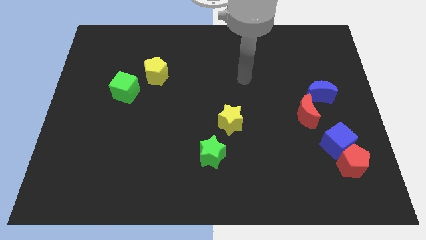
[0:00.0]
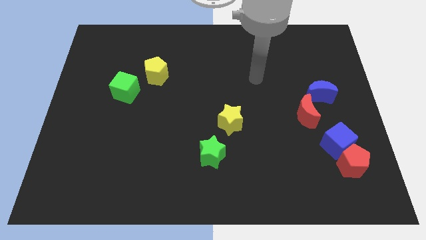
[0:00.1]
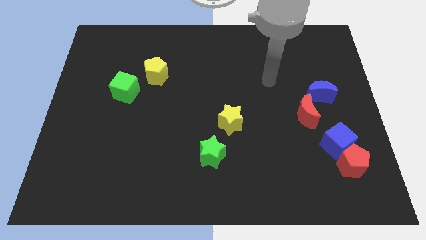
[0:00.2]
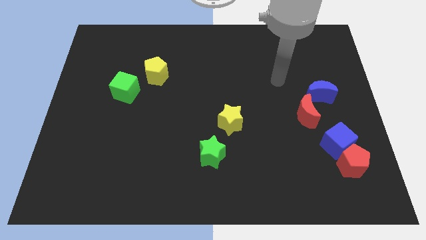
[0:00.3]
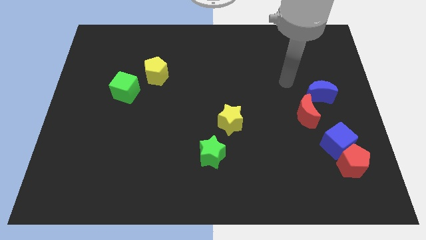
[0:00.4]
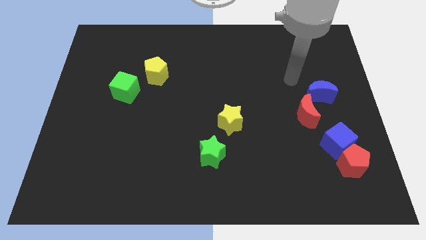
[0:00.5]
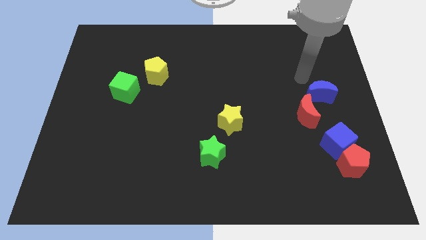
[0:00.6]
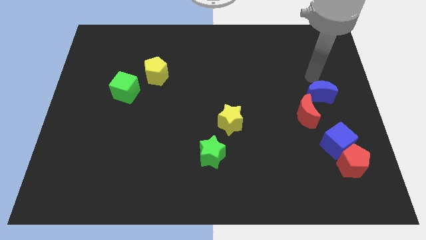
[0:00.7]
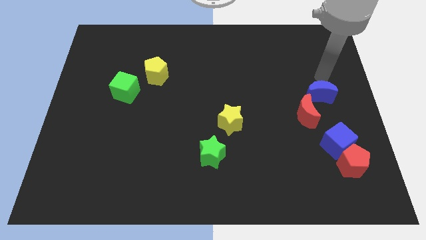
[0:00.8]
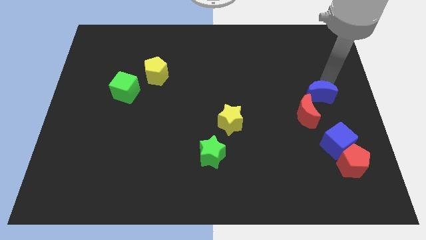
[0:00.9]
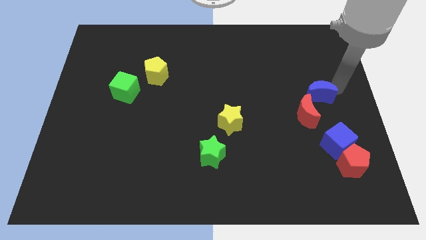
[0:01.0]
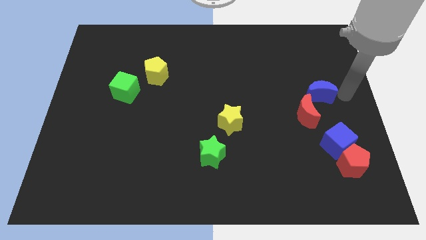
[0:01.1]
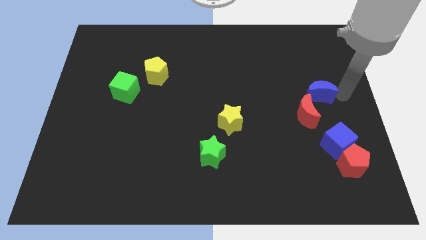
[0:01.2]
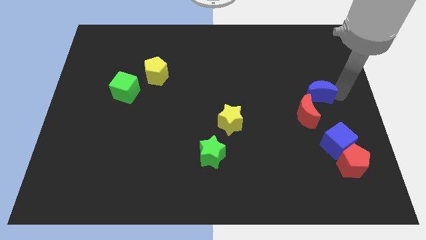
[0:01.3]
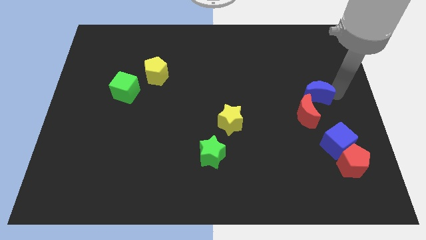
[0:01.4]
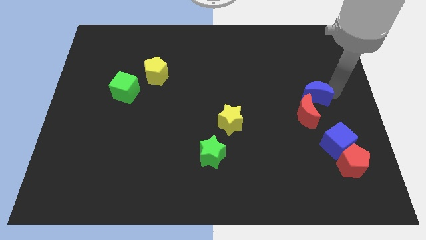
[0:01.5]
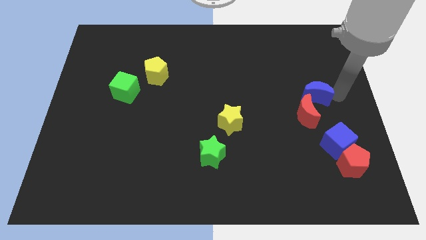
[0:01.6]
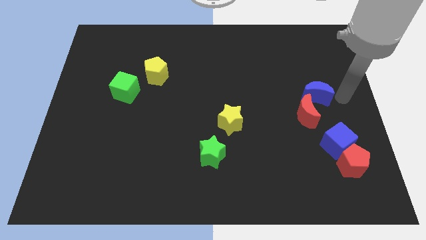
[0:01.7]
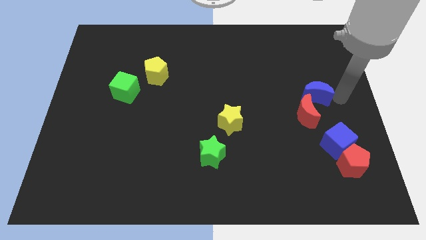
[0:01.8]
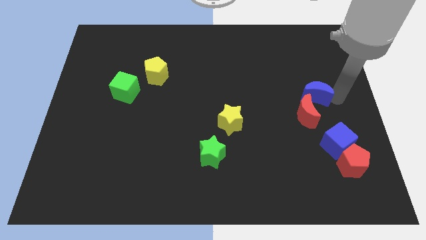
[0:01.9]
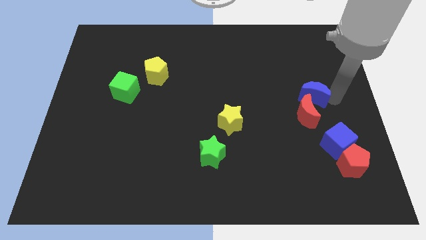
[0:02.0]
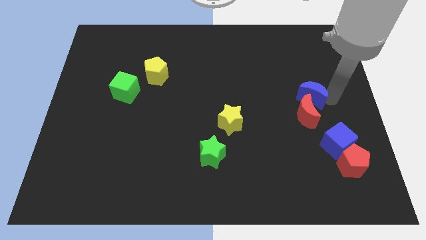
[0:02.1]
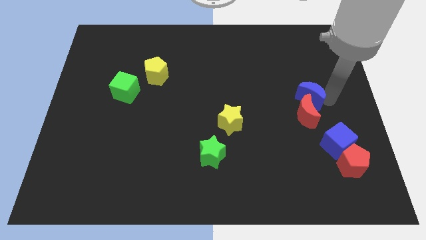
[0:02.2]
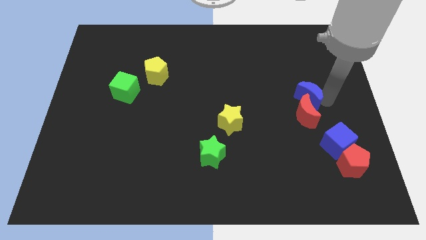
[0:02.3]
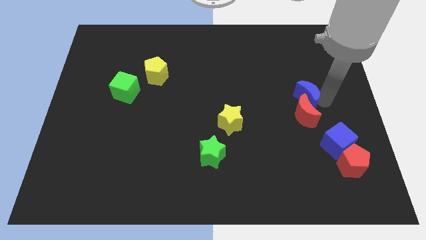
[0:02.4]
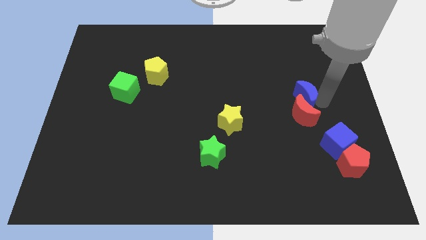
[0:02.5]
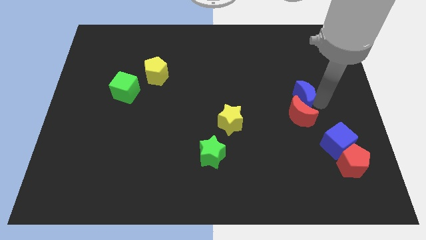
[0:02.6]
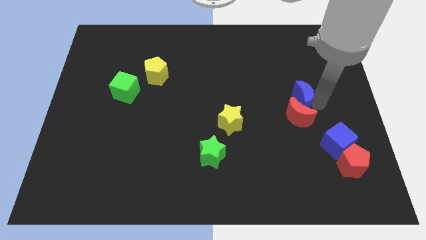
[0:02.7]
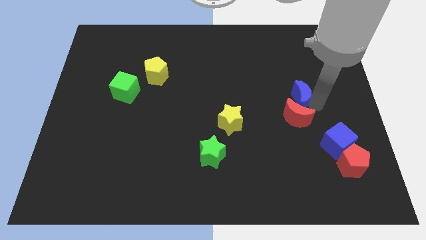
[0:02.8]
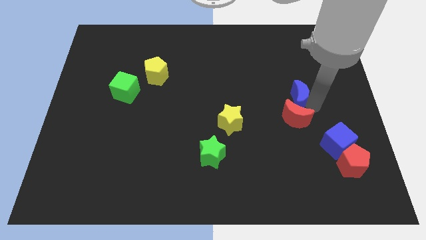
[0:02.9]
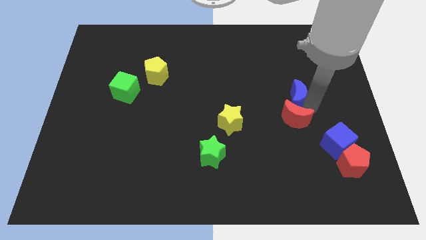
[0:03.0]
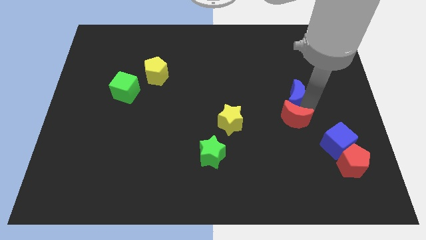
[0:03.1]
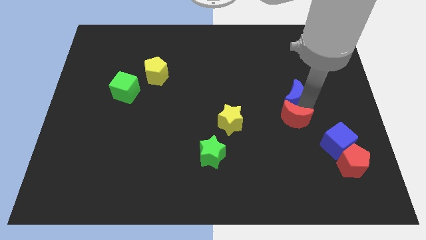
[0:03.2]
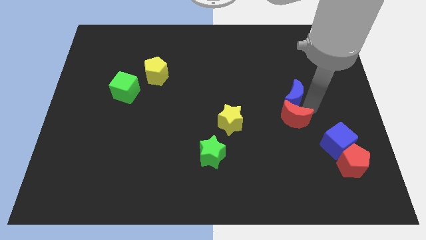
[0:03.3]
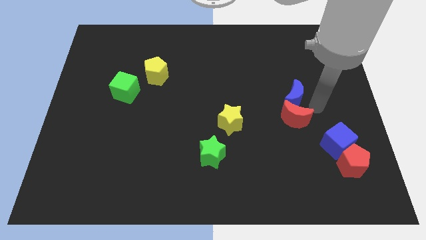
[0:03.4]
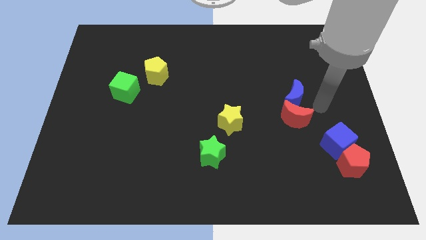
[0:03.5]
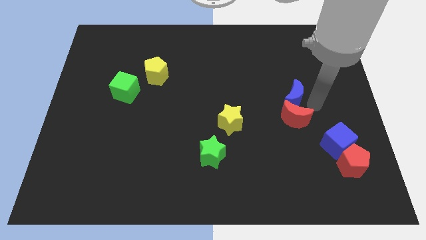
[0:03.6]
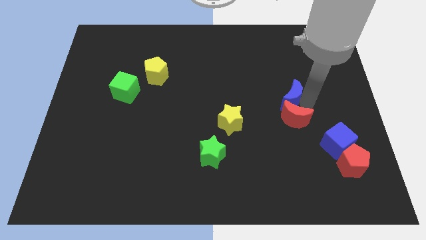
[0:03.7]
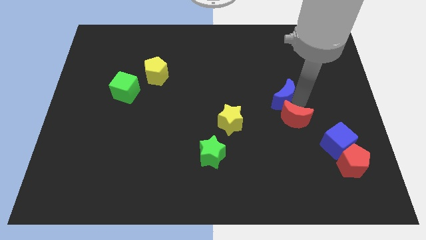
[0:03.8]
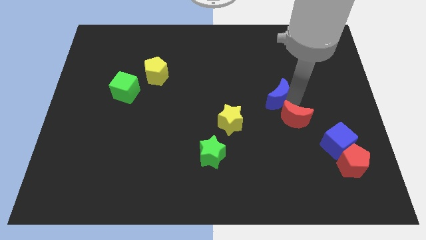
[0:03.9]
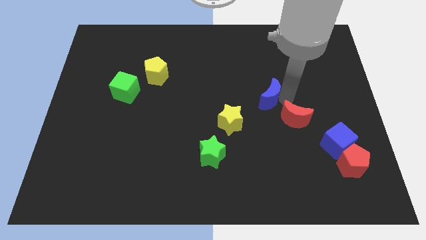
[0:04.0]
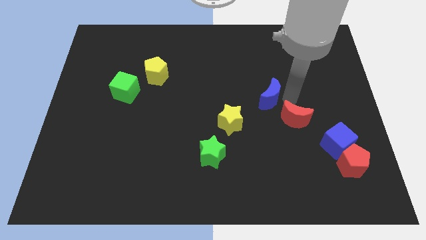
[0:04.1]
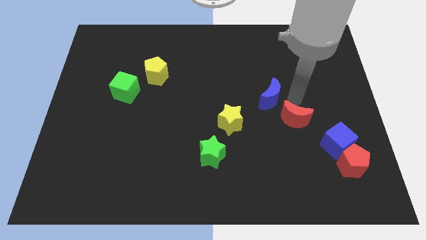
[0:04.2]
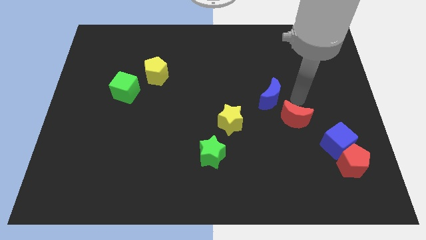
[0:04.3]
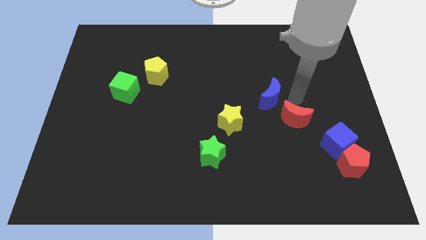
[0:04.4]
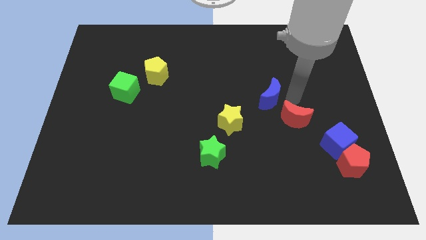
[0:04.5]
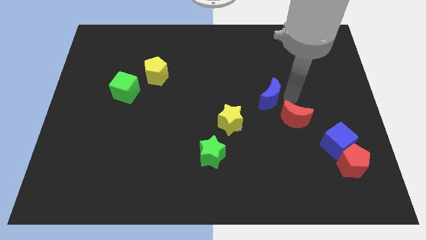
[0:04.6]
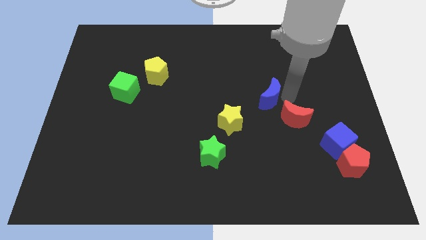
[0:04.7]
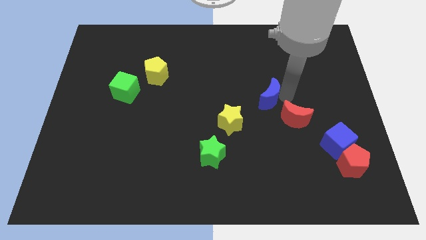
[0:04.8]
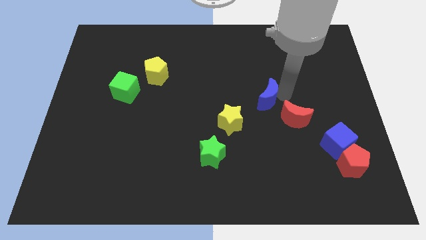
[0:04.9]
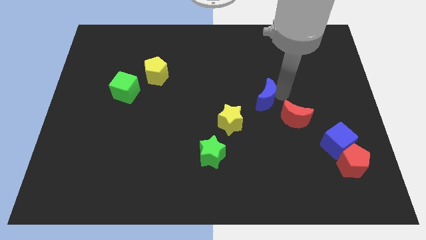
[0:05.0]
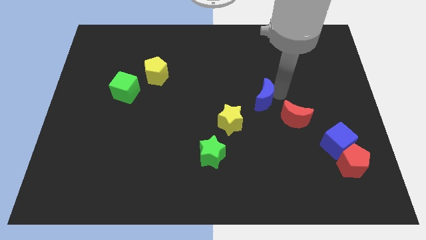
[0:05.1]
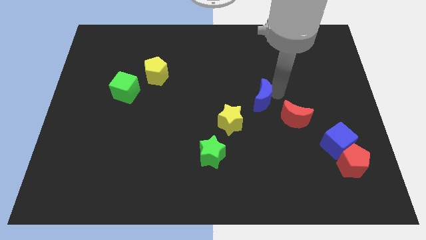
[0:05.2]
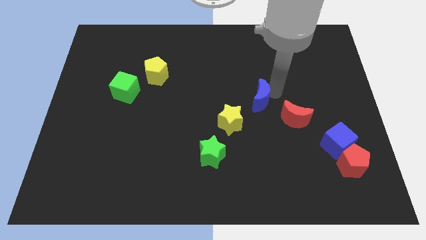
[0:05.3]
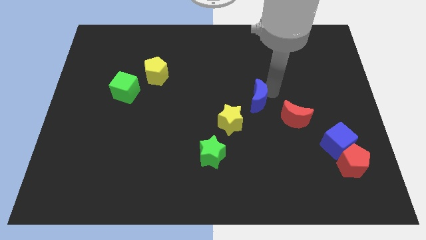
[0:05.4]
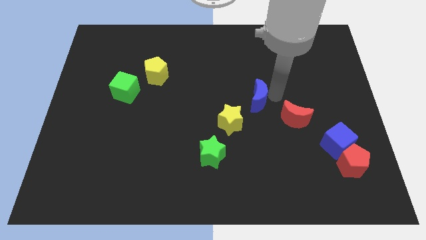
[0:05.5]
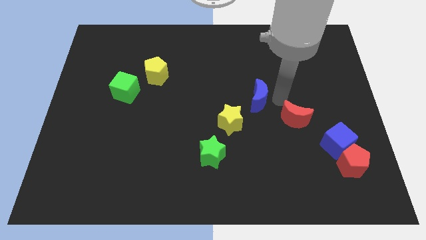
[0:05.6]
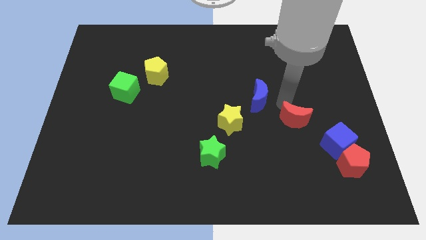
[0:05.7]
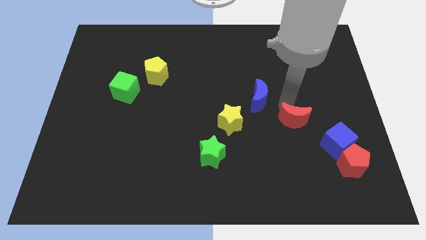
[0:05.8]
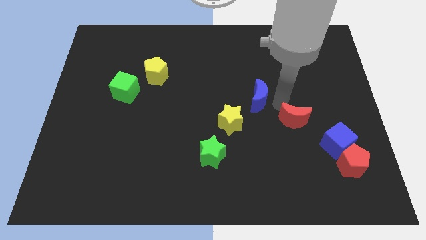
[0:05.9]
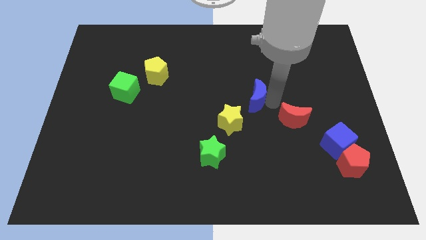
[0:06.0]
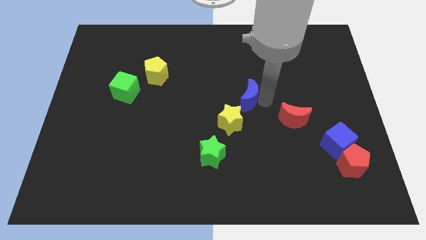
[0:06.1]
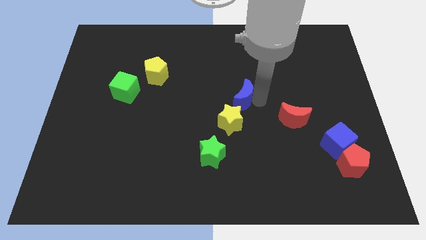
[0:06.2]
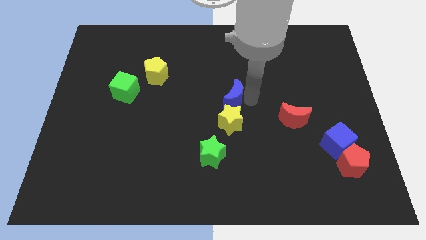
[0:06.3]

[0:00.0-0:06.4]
slide the blue moon to the left

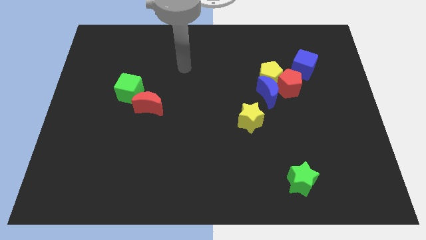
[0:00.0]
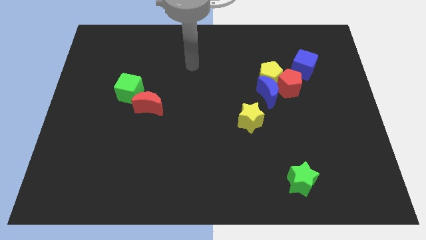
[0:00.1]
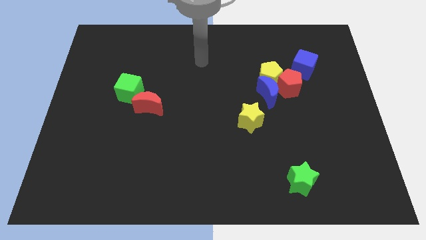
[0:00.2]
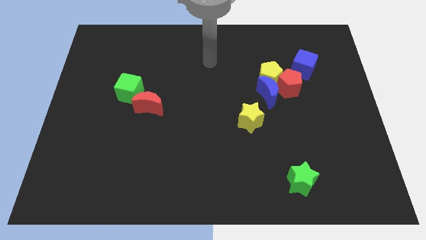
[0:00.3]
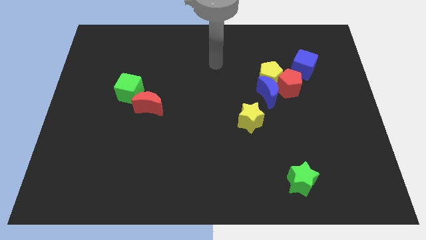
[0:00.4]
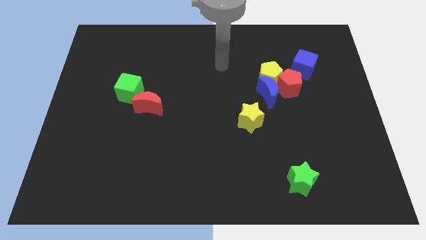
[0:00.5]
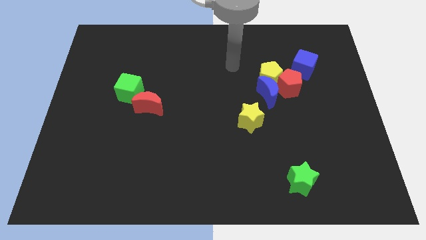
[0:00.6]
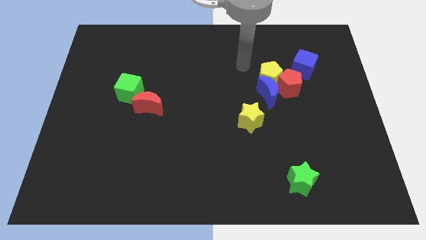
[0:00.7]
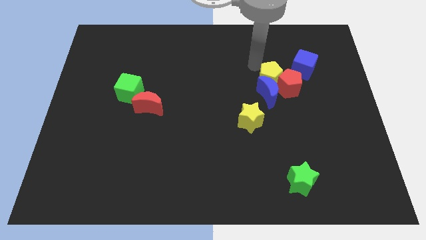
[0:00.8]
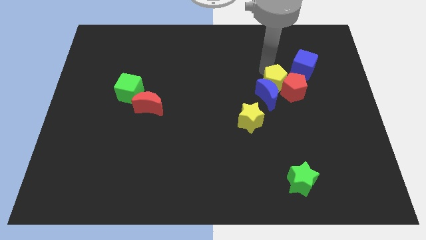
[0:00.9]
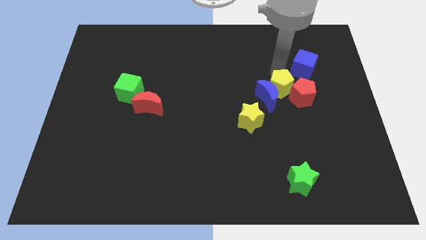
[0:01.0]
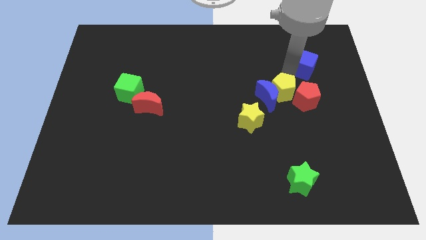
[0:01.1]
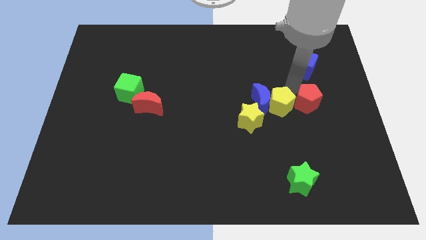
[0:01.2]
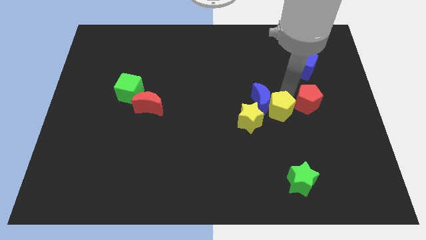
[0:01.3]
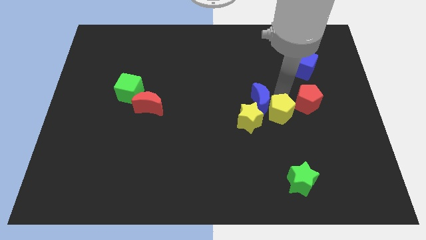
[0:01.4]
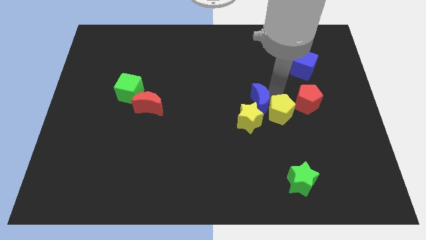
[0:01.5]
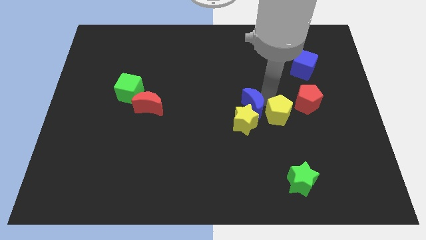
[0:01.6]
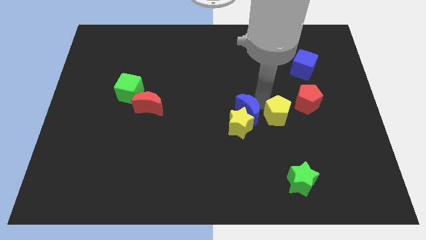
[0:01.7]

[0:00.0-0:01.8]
push the blue moon down and to the left slightly

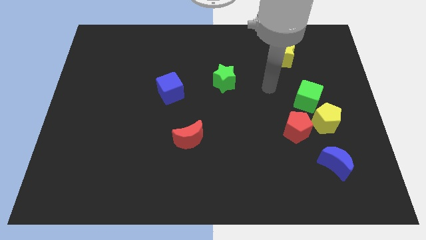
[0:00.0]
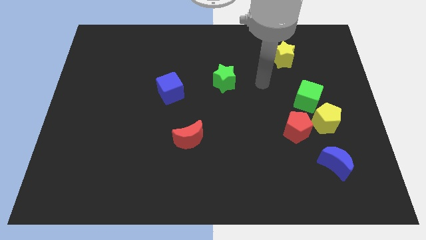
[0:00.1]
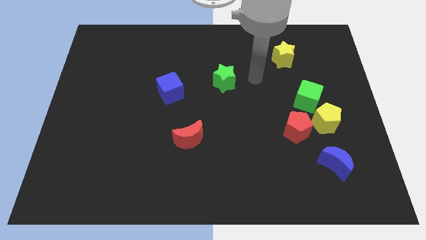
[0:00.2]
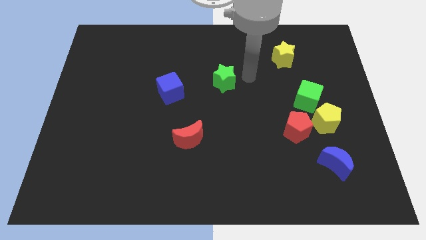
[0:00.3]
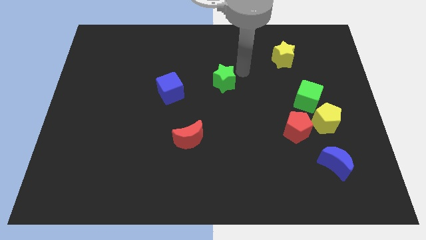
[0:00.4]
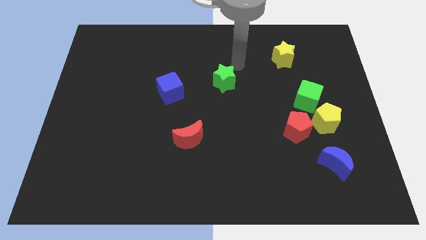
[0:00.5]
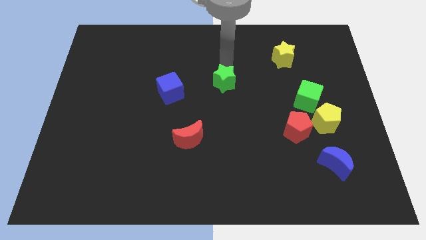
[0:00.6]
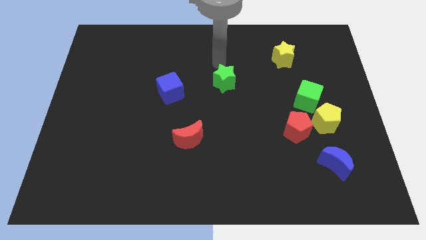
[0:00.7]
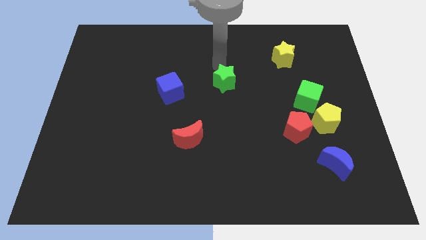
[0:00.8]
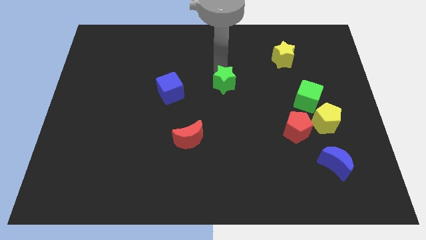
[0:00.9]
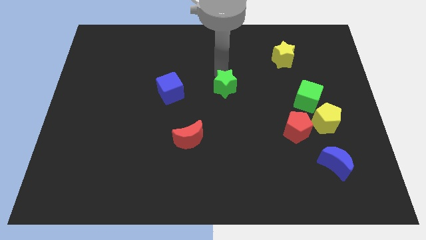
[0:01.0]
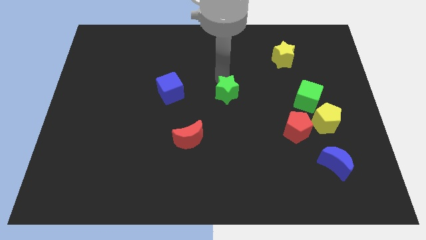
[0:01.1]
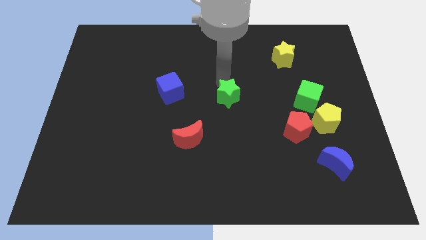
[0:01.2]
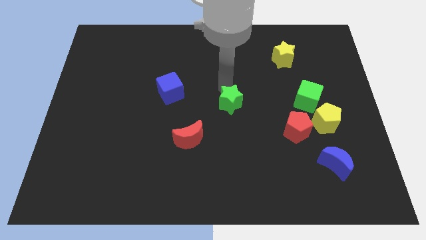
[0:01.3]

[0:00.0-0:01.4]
slide the green star a little bit down
